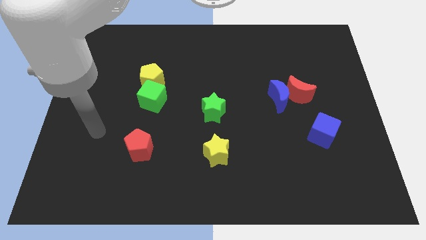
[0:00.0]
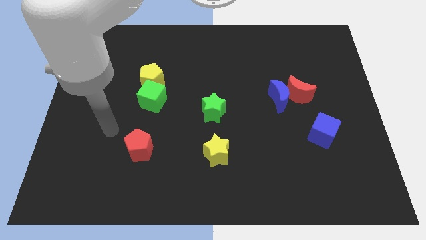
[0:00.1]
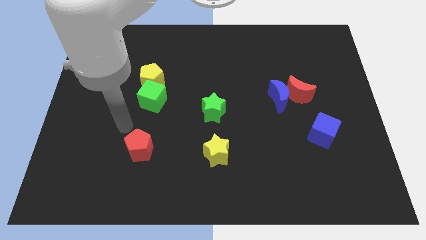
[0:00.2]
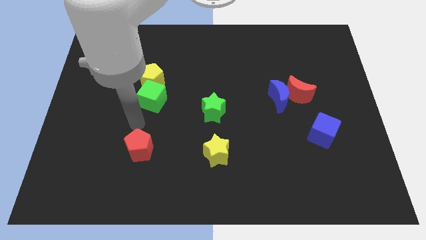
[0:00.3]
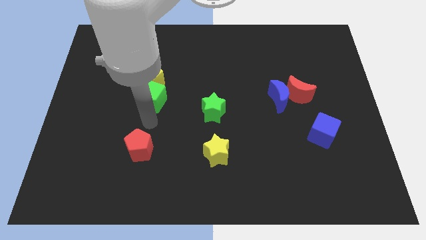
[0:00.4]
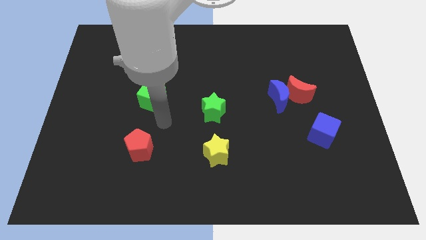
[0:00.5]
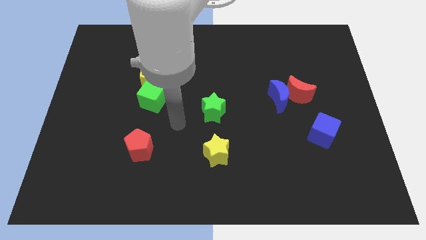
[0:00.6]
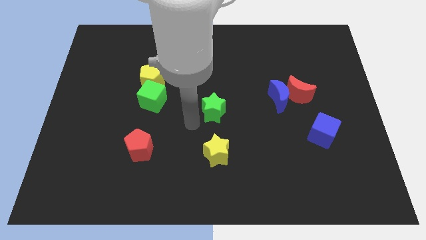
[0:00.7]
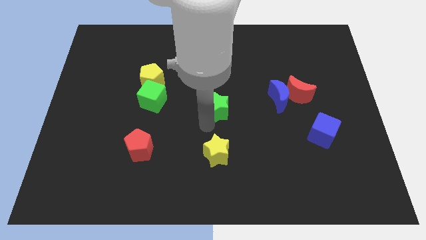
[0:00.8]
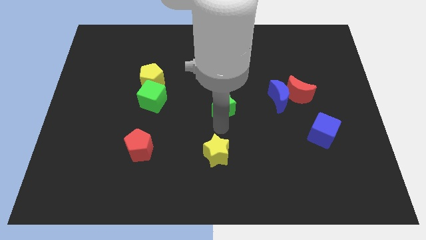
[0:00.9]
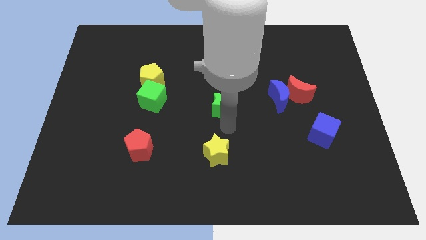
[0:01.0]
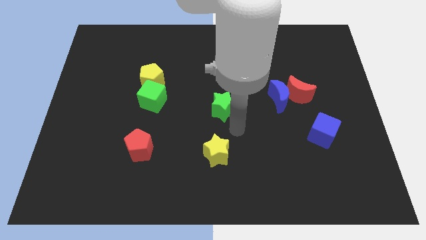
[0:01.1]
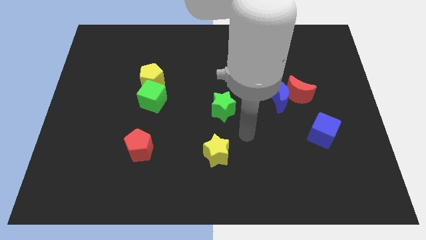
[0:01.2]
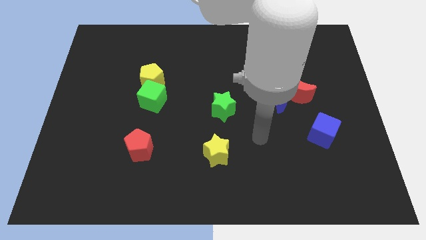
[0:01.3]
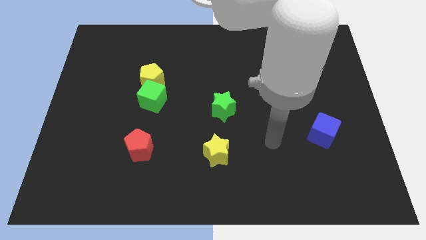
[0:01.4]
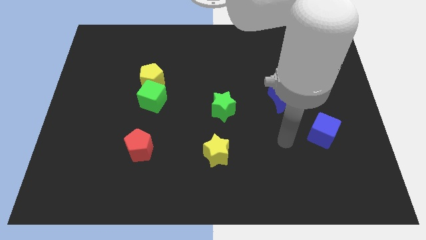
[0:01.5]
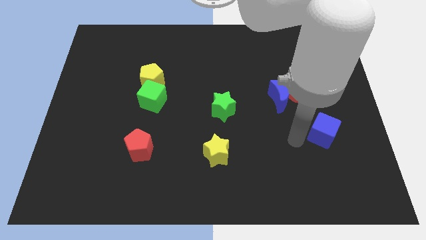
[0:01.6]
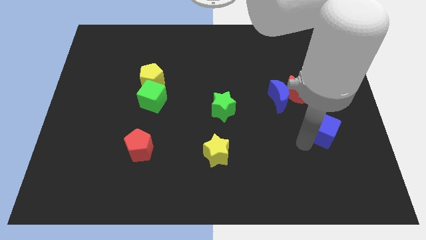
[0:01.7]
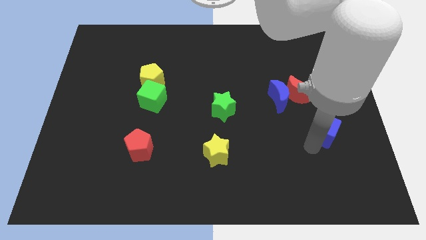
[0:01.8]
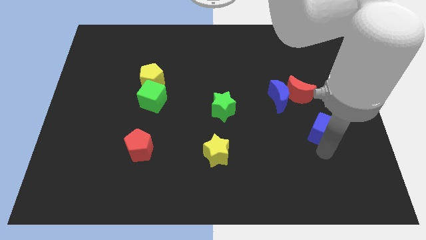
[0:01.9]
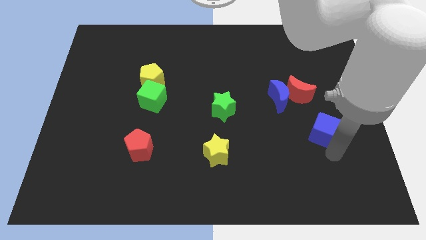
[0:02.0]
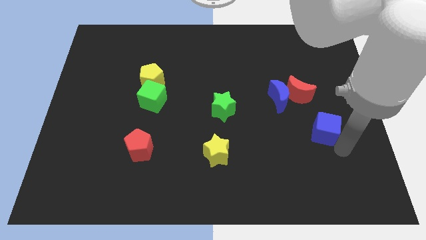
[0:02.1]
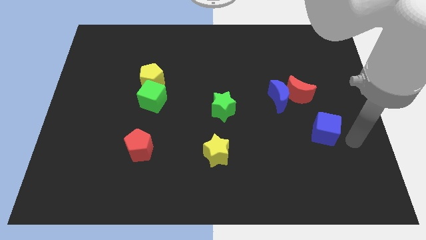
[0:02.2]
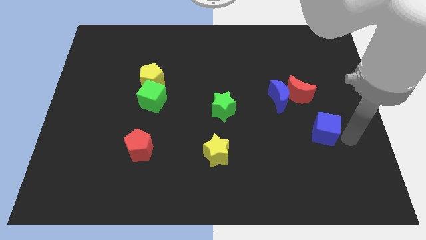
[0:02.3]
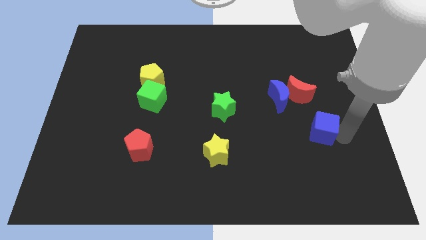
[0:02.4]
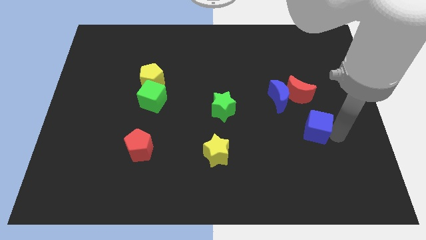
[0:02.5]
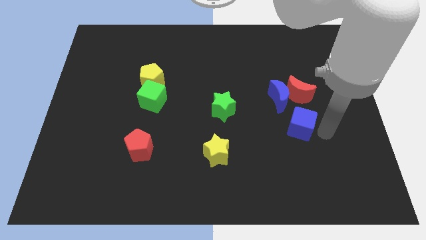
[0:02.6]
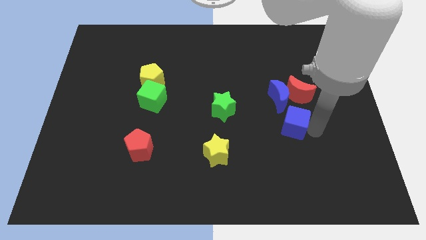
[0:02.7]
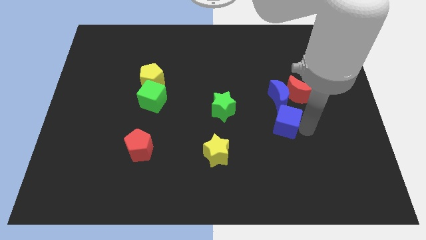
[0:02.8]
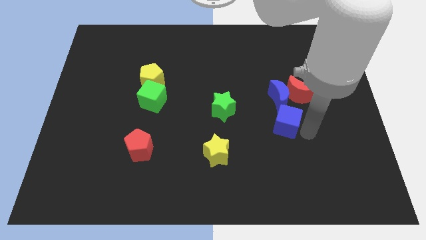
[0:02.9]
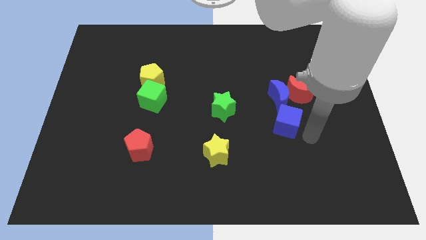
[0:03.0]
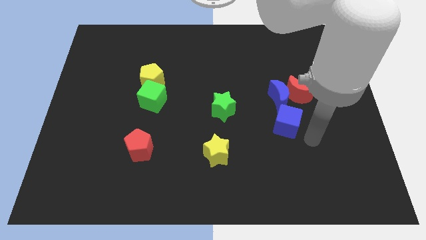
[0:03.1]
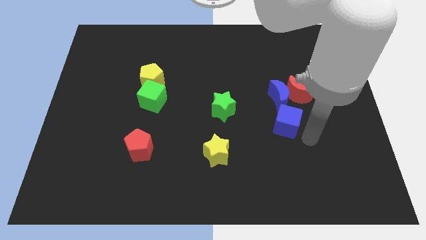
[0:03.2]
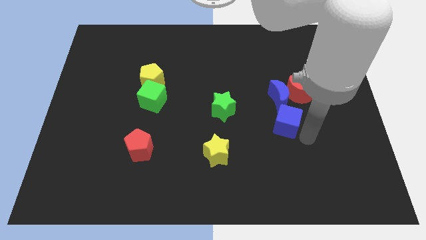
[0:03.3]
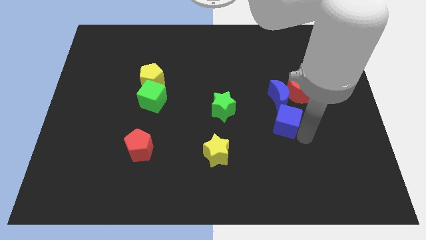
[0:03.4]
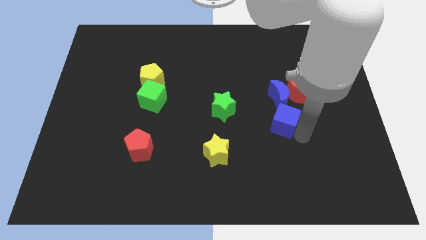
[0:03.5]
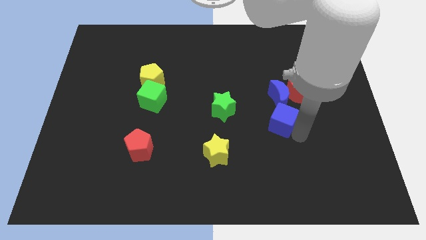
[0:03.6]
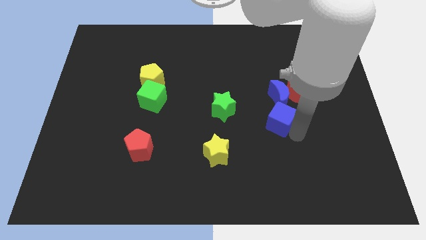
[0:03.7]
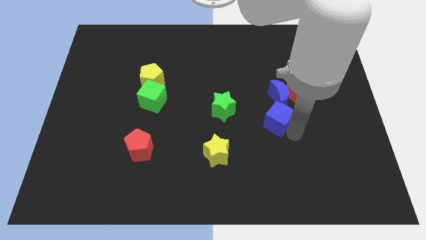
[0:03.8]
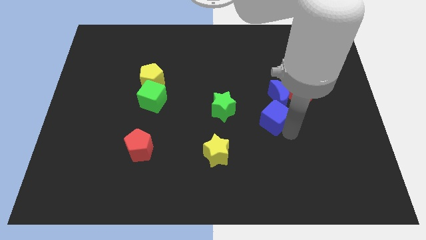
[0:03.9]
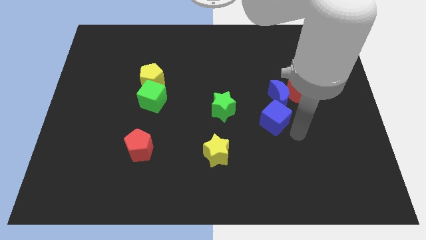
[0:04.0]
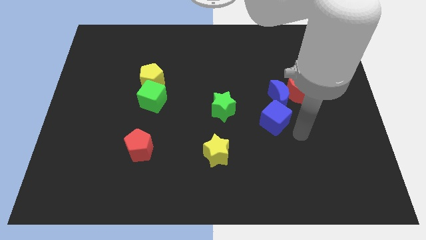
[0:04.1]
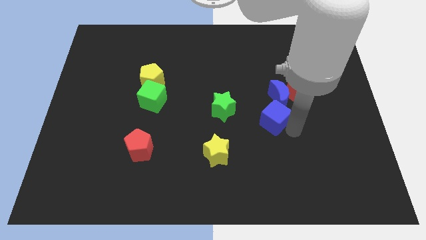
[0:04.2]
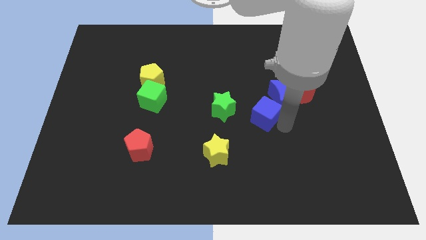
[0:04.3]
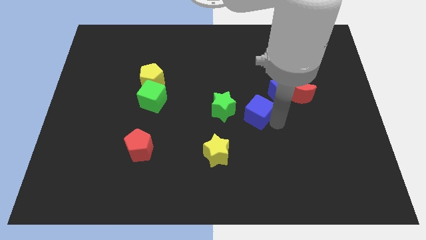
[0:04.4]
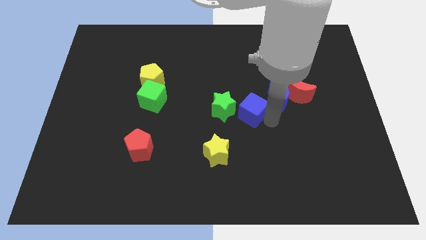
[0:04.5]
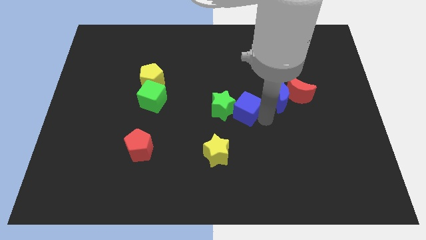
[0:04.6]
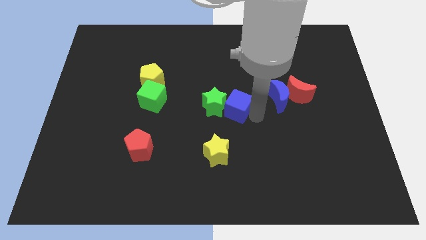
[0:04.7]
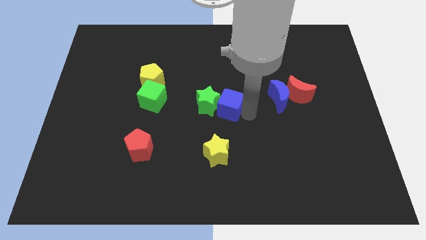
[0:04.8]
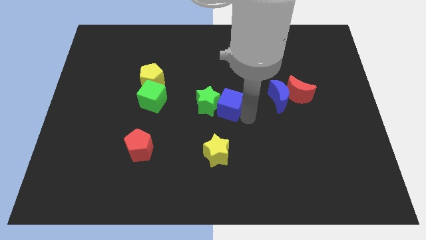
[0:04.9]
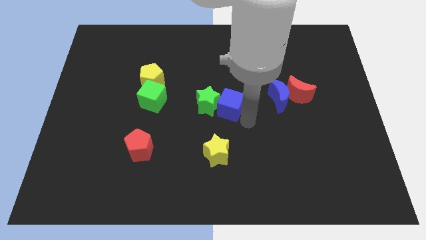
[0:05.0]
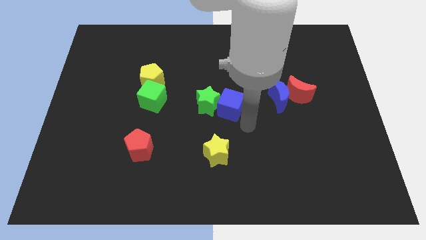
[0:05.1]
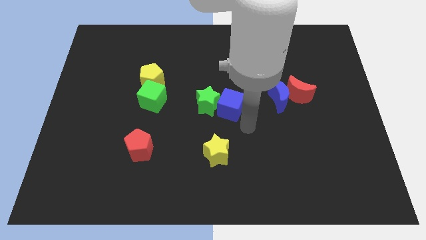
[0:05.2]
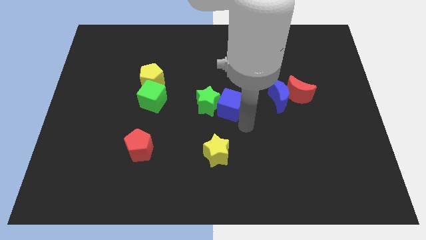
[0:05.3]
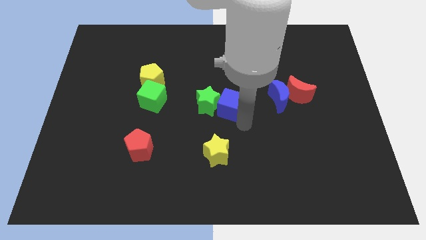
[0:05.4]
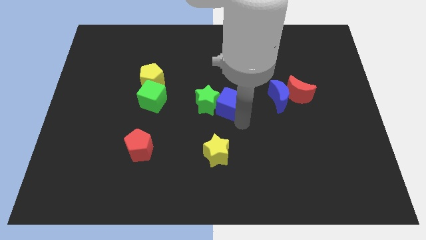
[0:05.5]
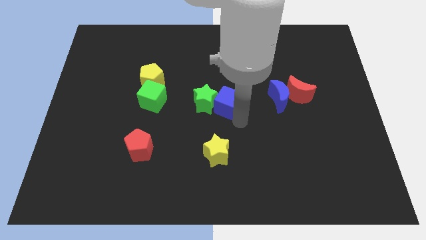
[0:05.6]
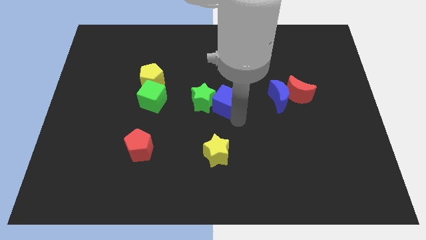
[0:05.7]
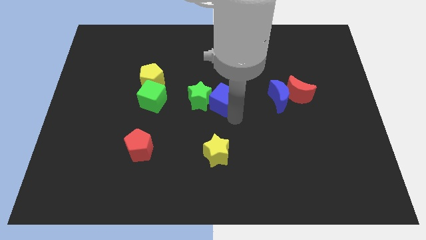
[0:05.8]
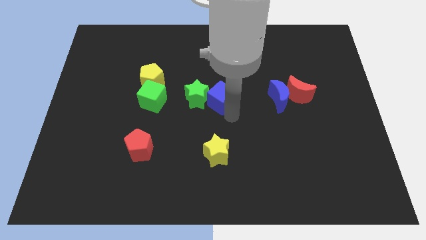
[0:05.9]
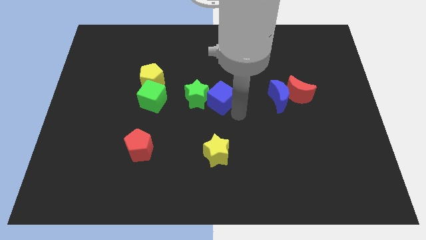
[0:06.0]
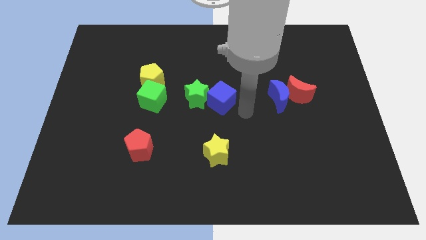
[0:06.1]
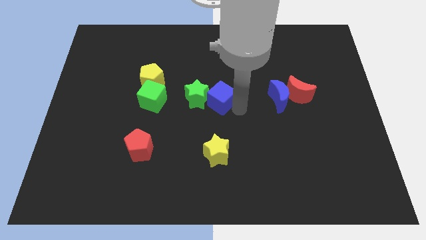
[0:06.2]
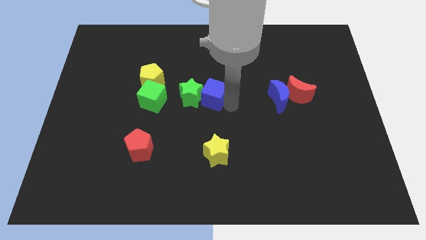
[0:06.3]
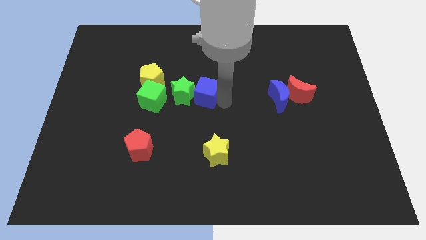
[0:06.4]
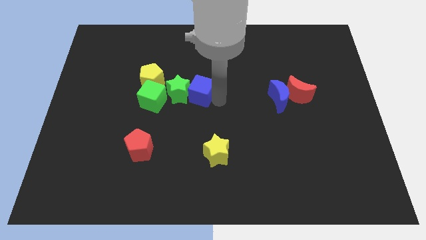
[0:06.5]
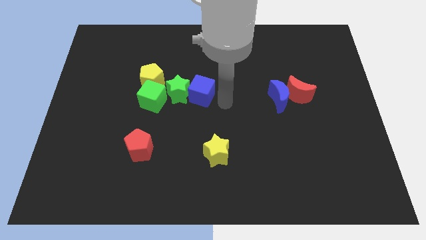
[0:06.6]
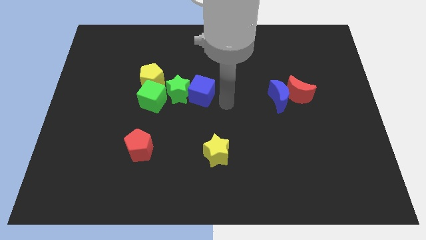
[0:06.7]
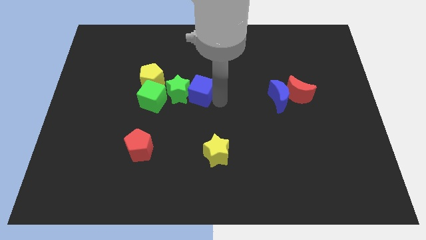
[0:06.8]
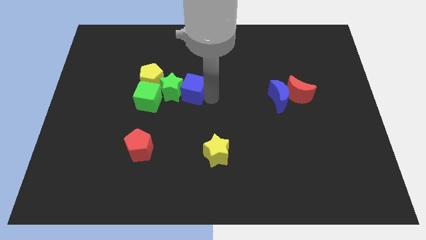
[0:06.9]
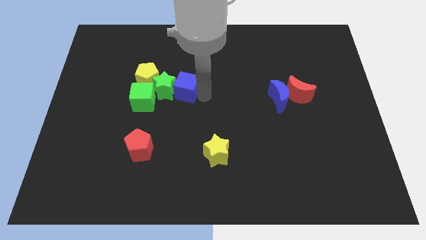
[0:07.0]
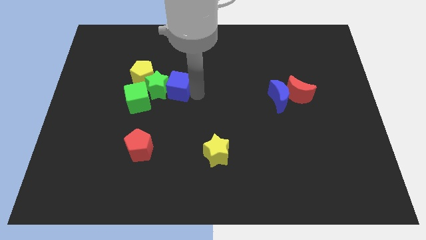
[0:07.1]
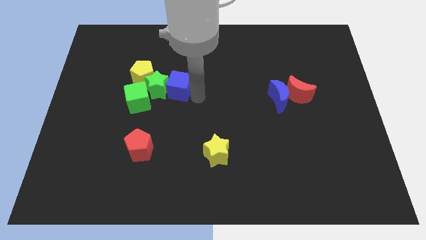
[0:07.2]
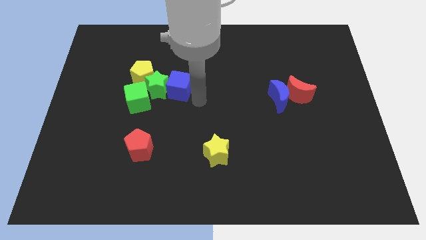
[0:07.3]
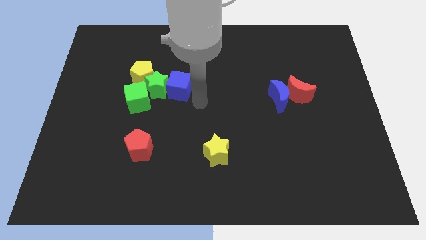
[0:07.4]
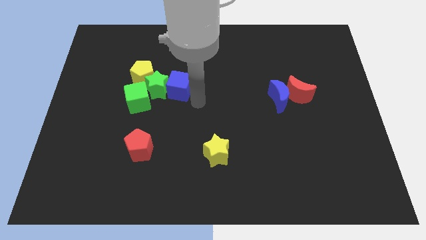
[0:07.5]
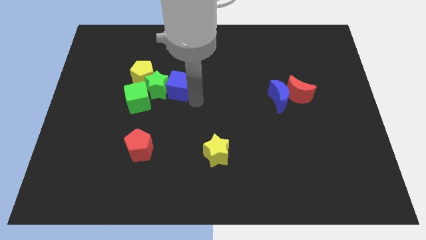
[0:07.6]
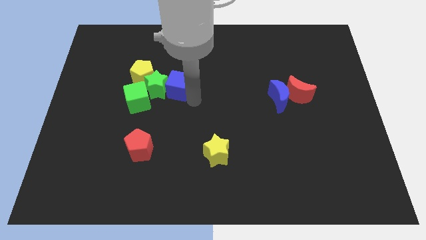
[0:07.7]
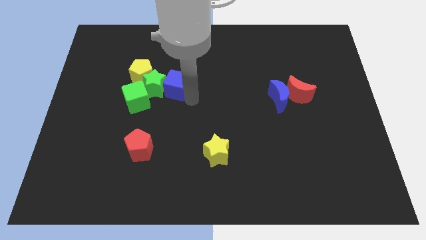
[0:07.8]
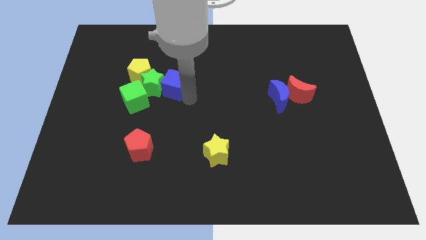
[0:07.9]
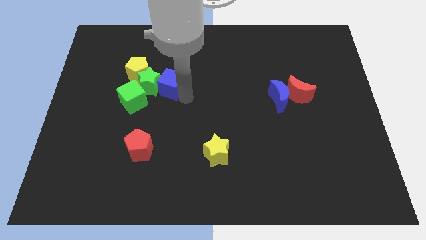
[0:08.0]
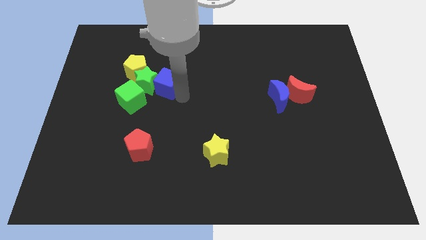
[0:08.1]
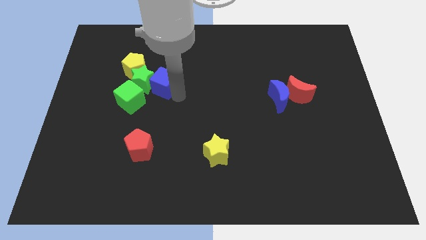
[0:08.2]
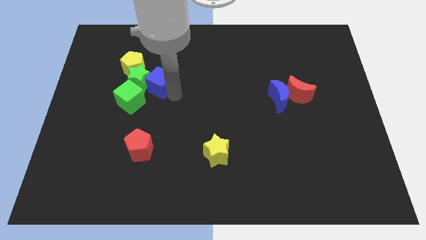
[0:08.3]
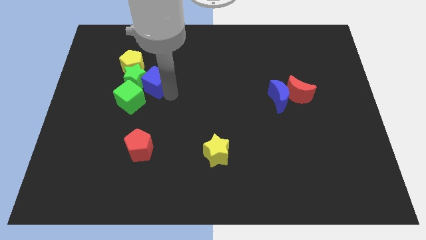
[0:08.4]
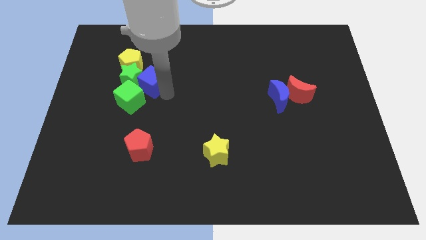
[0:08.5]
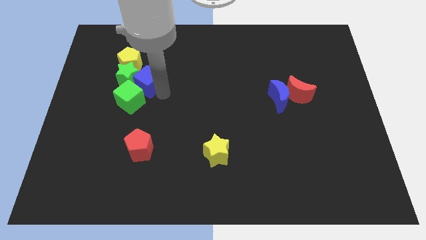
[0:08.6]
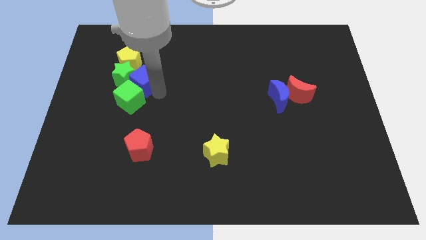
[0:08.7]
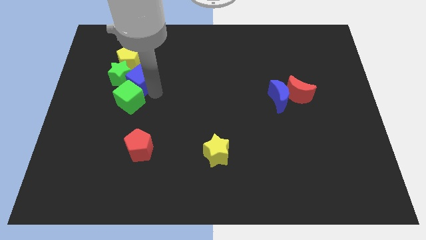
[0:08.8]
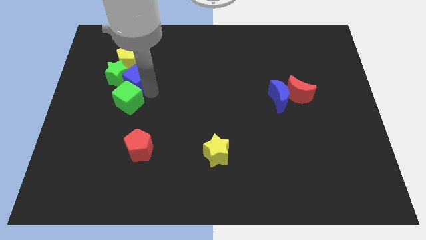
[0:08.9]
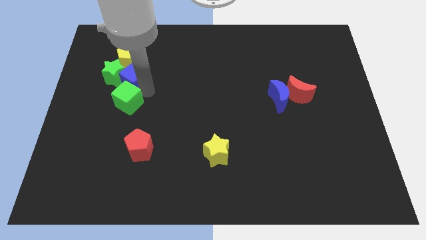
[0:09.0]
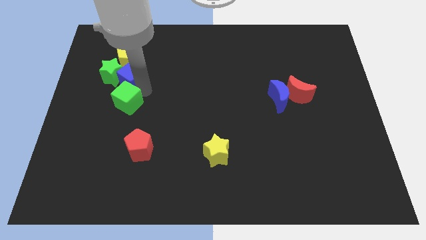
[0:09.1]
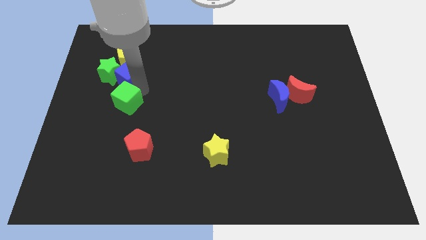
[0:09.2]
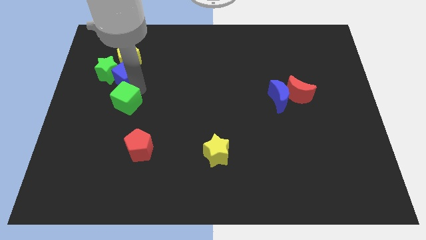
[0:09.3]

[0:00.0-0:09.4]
push the blue cube towards the yellow pentagon
